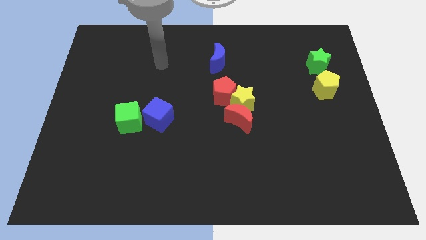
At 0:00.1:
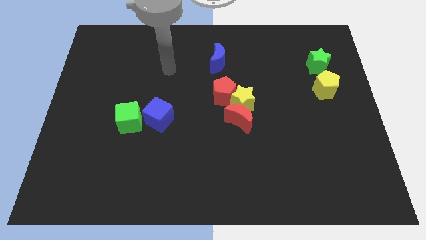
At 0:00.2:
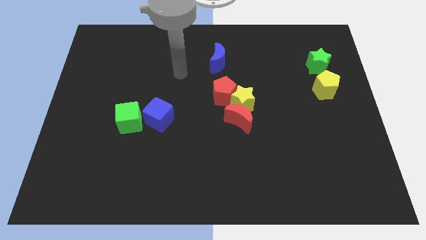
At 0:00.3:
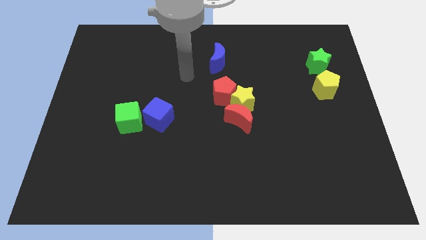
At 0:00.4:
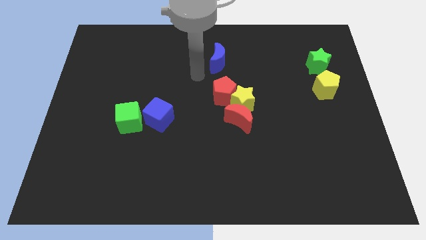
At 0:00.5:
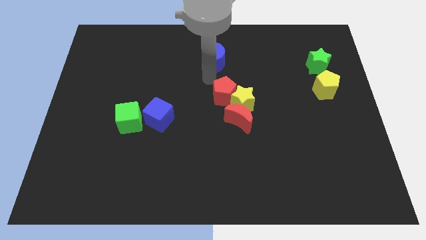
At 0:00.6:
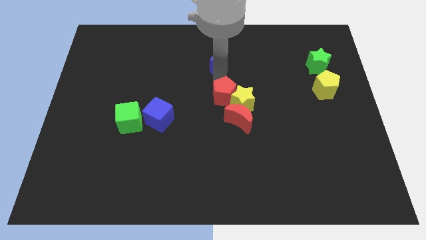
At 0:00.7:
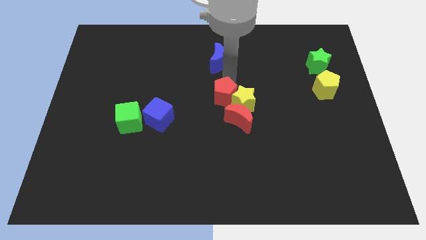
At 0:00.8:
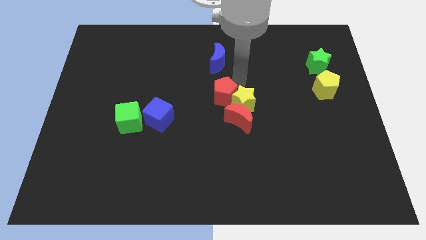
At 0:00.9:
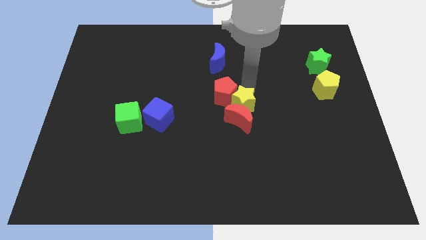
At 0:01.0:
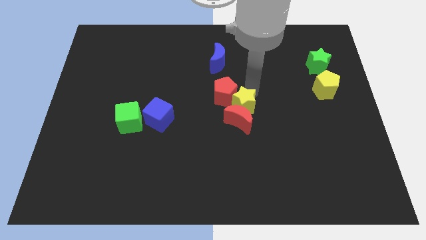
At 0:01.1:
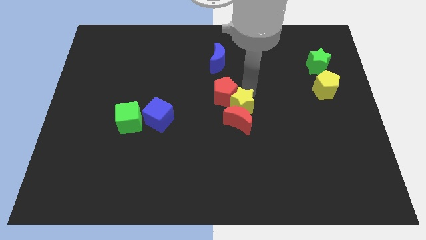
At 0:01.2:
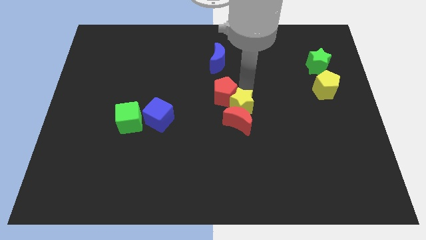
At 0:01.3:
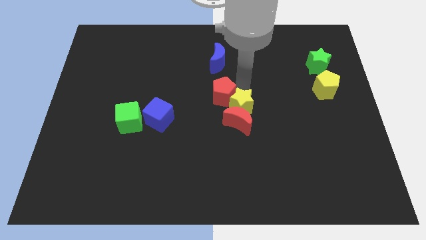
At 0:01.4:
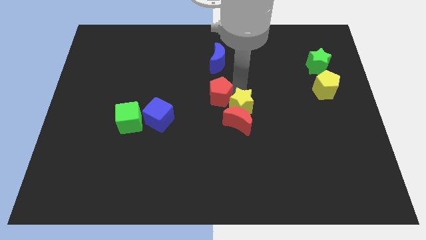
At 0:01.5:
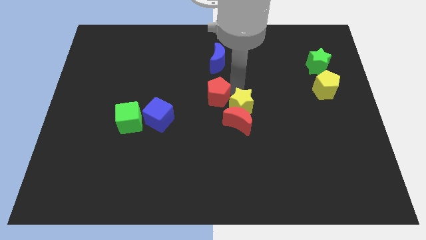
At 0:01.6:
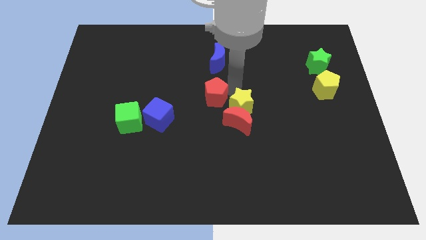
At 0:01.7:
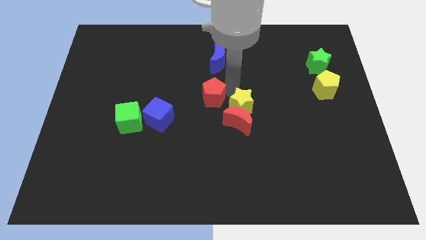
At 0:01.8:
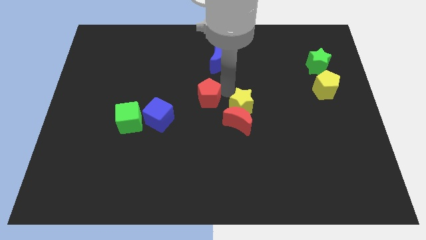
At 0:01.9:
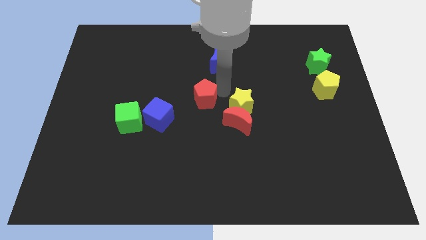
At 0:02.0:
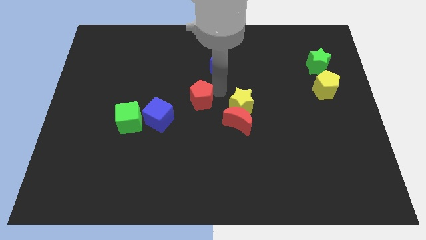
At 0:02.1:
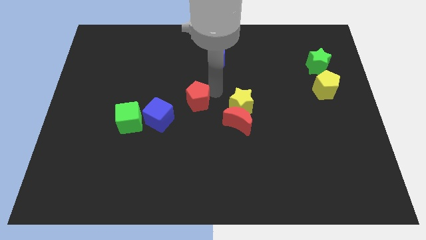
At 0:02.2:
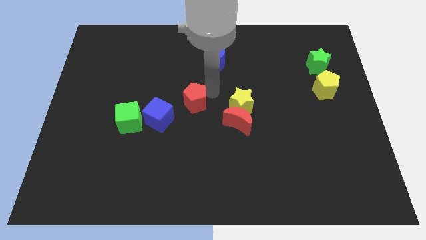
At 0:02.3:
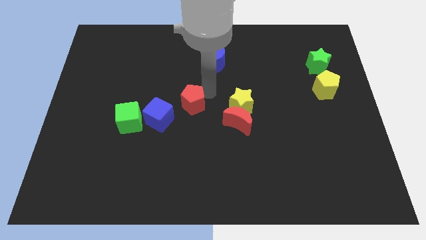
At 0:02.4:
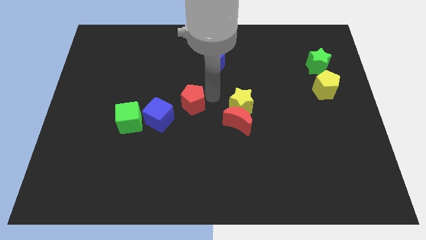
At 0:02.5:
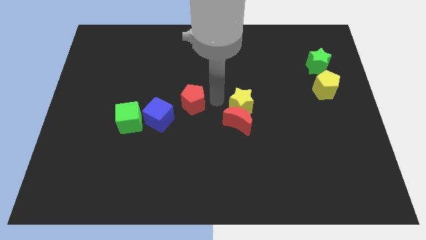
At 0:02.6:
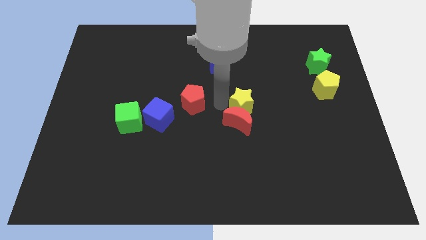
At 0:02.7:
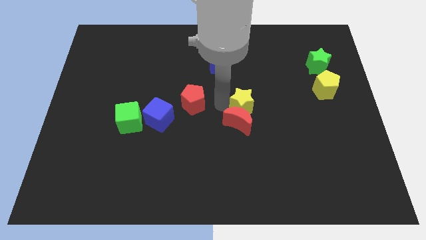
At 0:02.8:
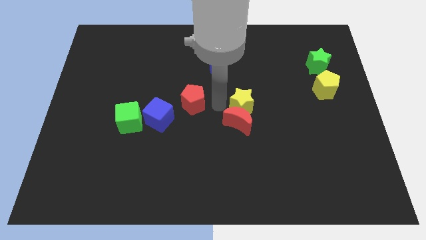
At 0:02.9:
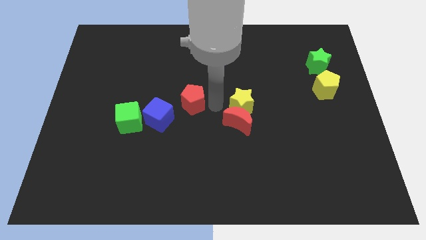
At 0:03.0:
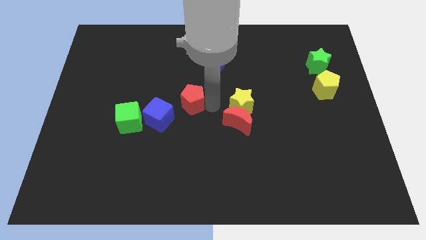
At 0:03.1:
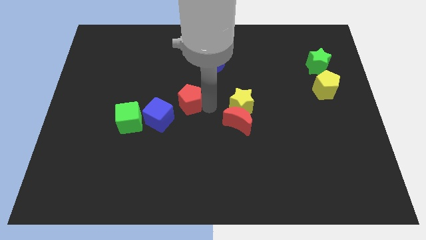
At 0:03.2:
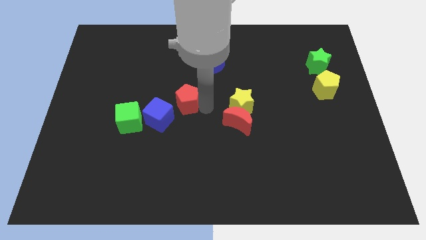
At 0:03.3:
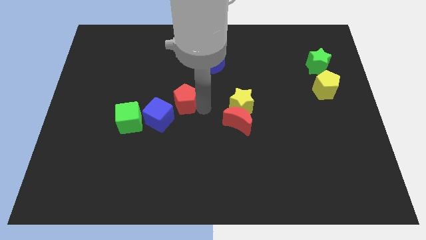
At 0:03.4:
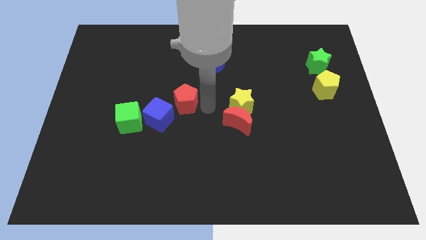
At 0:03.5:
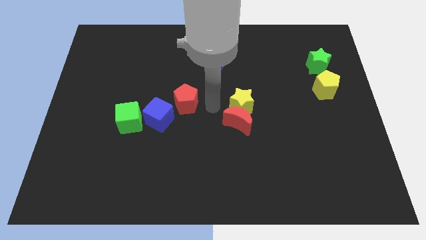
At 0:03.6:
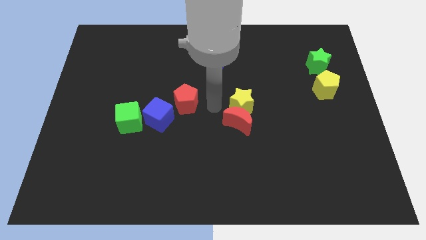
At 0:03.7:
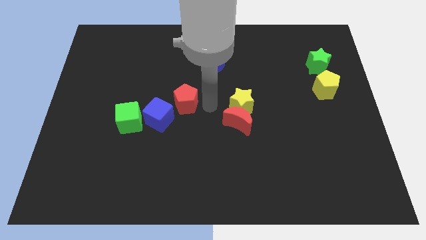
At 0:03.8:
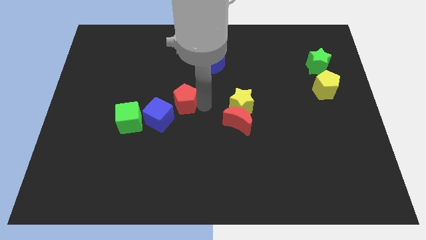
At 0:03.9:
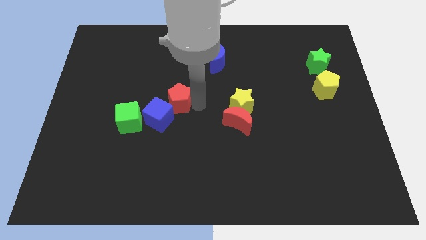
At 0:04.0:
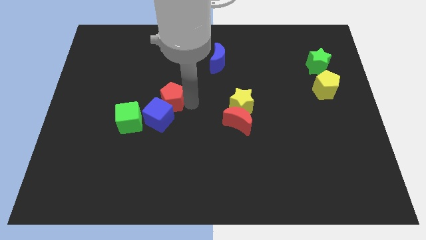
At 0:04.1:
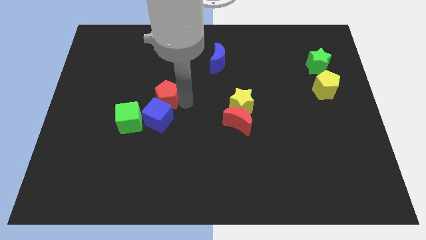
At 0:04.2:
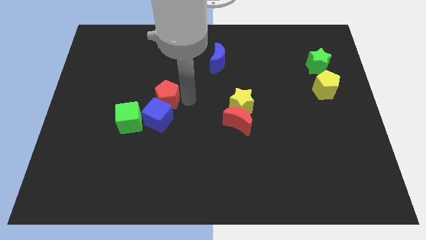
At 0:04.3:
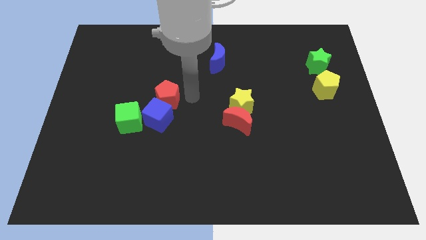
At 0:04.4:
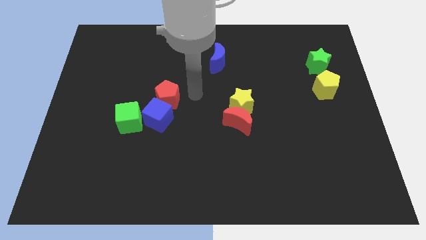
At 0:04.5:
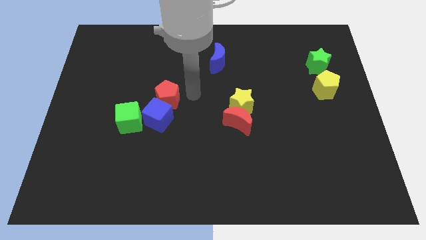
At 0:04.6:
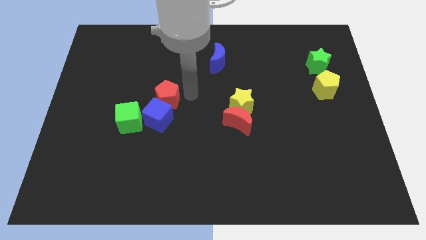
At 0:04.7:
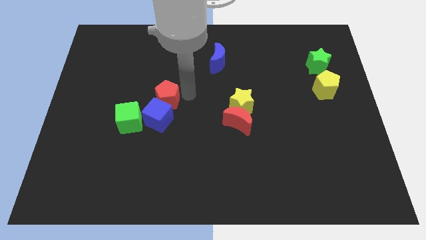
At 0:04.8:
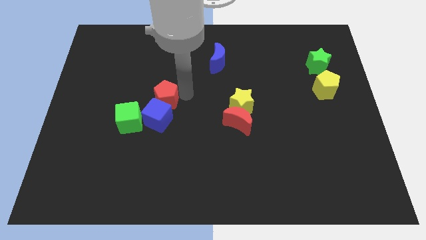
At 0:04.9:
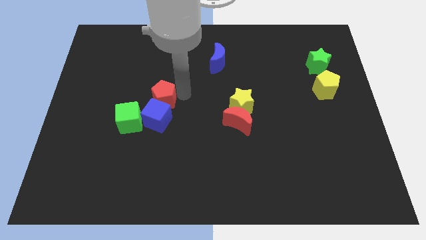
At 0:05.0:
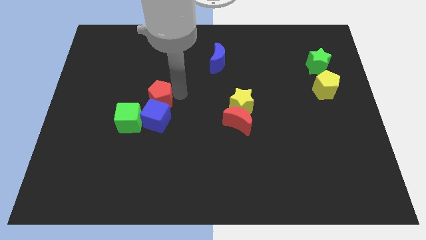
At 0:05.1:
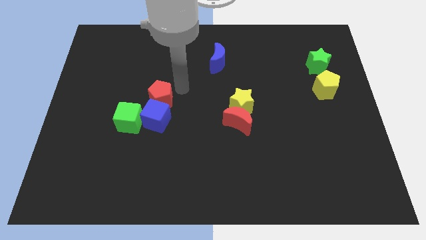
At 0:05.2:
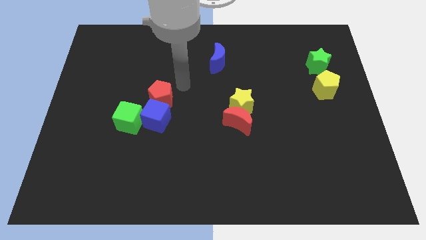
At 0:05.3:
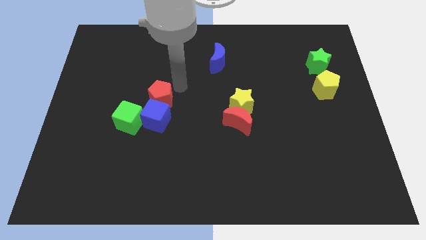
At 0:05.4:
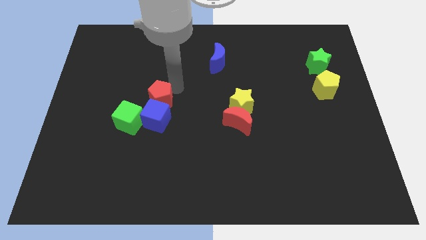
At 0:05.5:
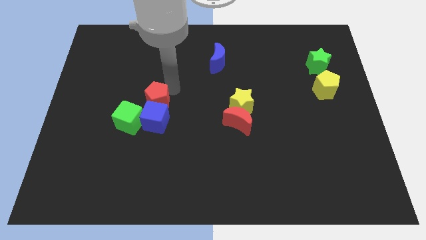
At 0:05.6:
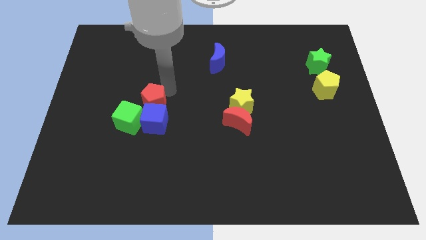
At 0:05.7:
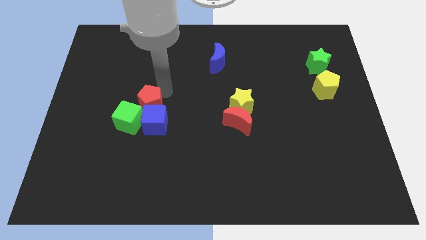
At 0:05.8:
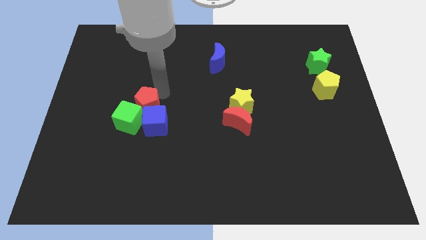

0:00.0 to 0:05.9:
push the red pentagon next to the green cube

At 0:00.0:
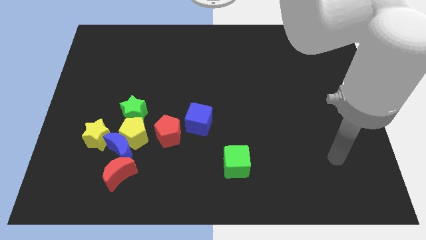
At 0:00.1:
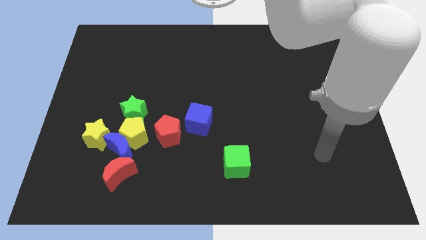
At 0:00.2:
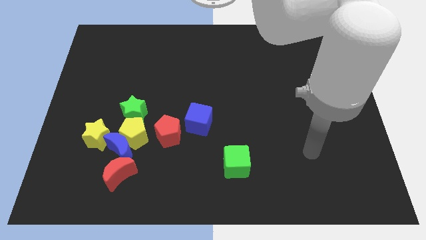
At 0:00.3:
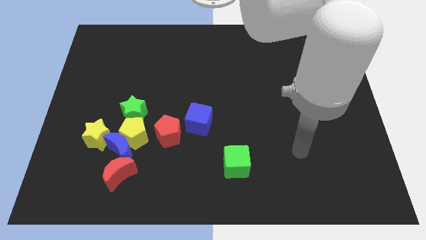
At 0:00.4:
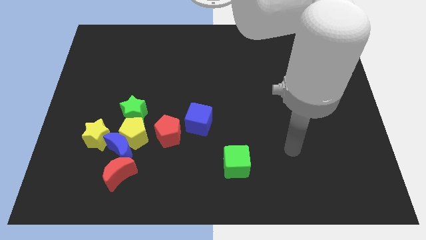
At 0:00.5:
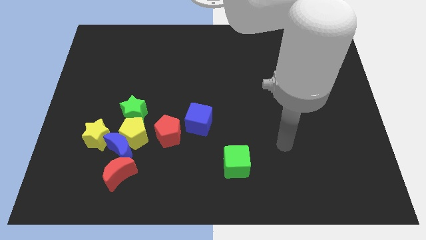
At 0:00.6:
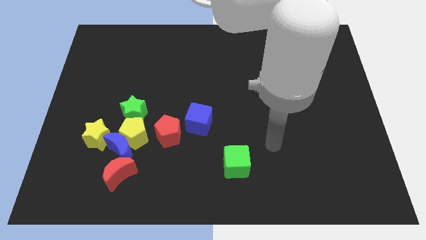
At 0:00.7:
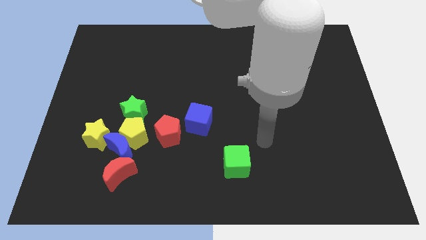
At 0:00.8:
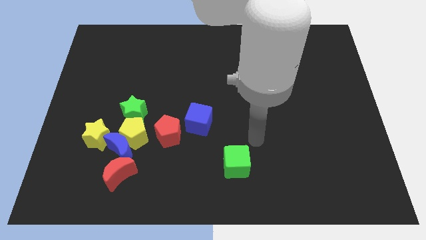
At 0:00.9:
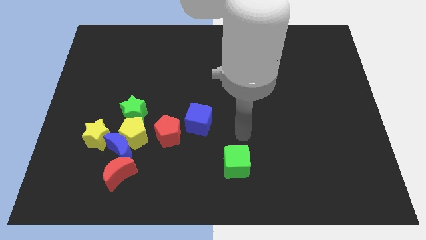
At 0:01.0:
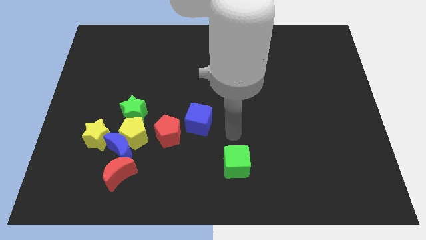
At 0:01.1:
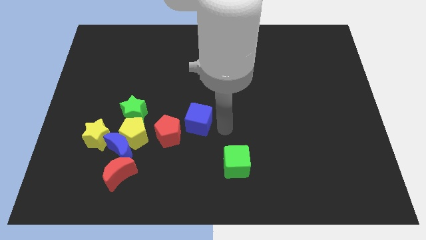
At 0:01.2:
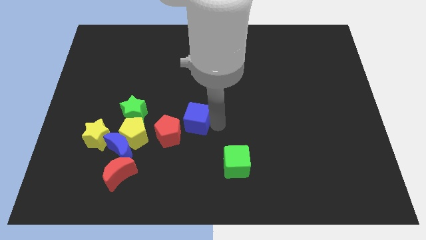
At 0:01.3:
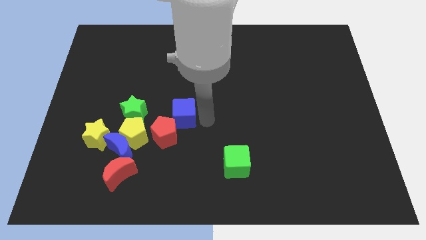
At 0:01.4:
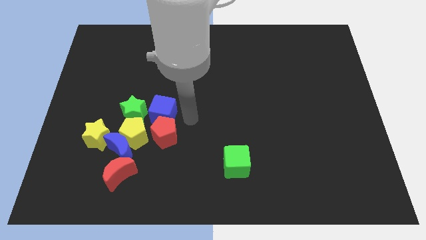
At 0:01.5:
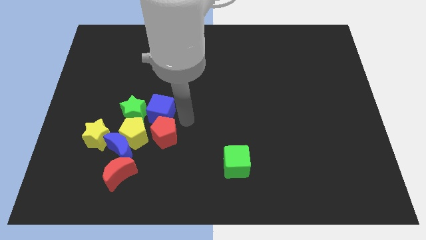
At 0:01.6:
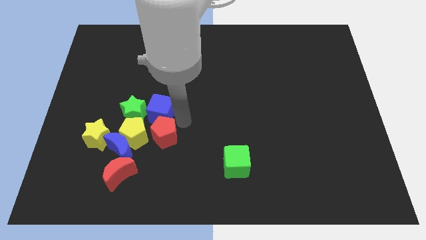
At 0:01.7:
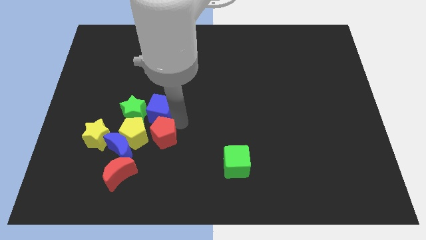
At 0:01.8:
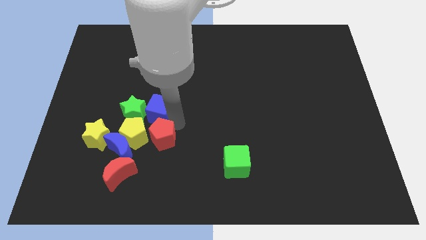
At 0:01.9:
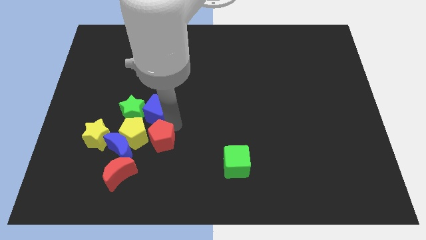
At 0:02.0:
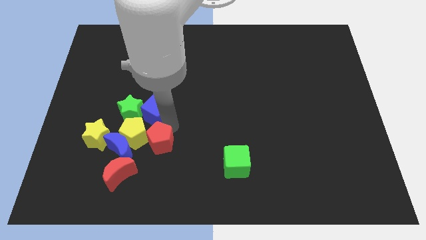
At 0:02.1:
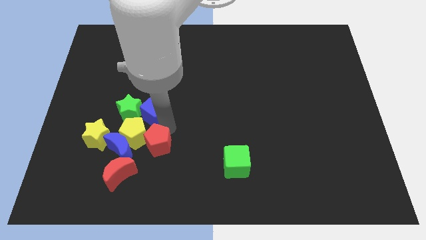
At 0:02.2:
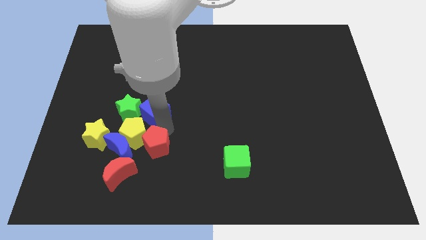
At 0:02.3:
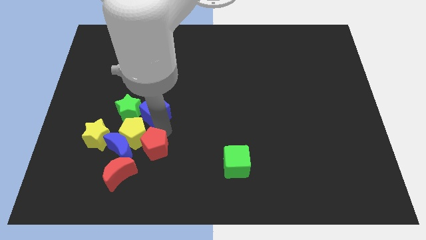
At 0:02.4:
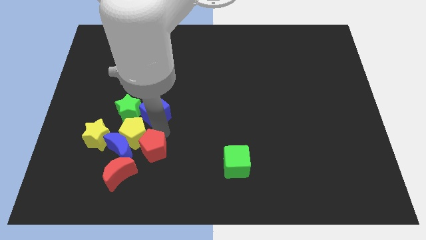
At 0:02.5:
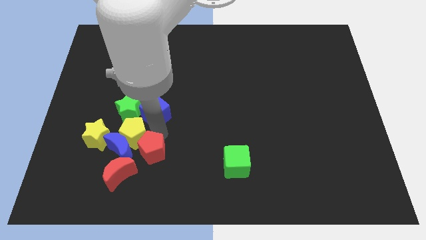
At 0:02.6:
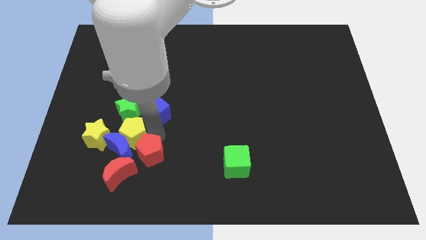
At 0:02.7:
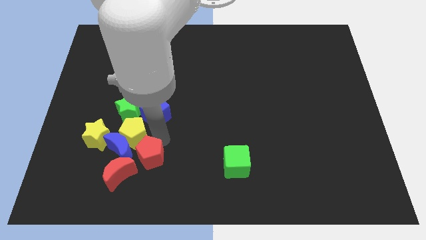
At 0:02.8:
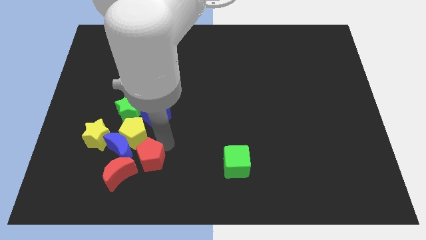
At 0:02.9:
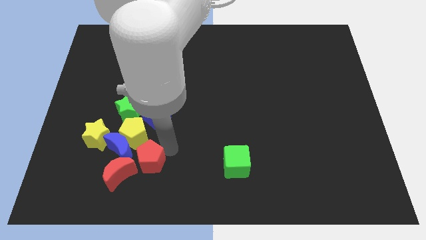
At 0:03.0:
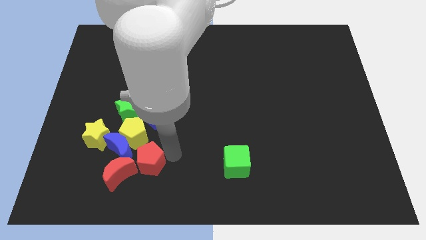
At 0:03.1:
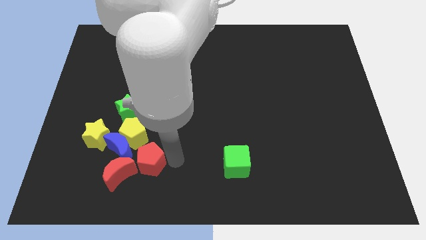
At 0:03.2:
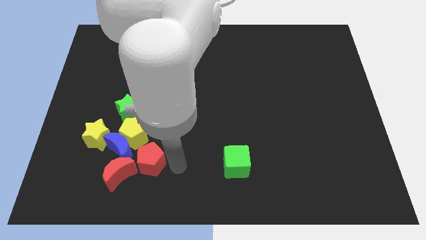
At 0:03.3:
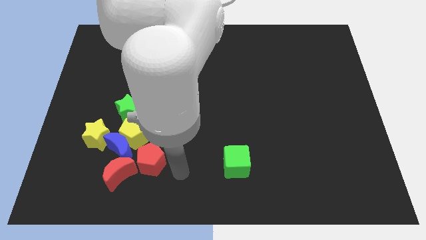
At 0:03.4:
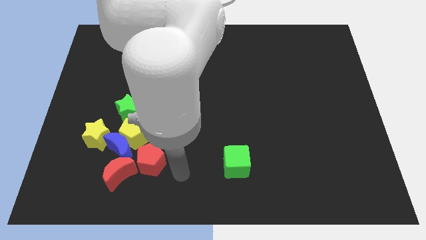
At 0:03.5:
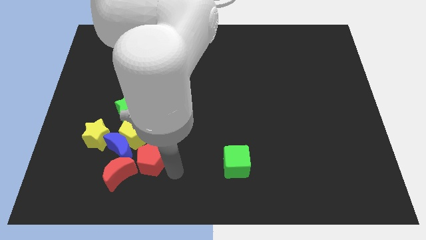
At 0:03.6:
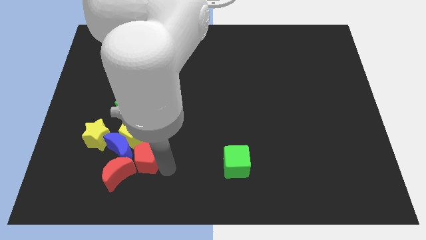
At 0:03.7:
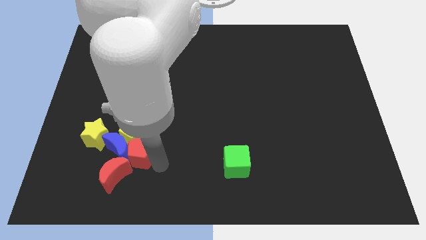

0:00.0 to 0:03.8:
move the red pentagon close to the blue moon
